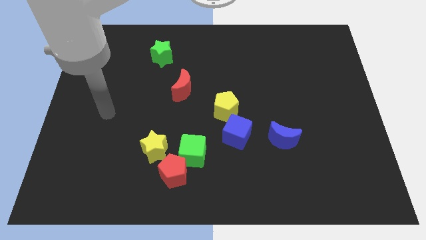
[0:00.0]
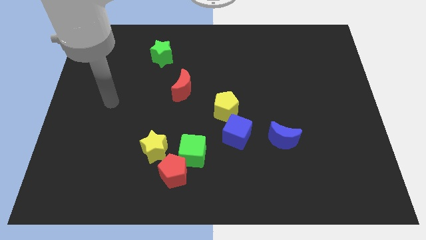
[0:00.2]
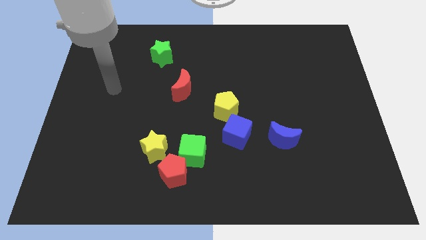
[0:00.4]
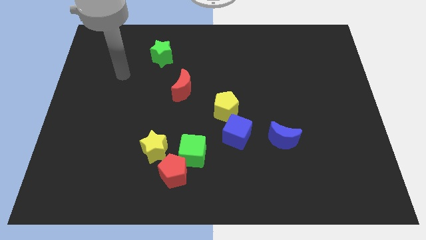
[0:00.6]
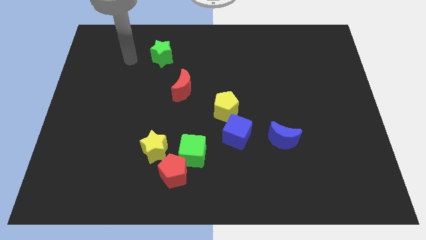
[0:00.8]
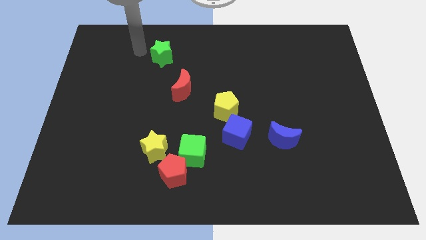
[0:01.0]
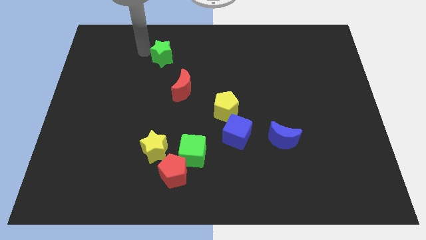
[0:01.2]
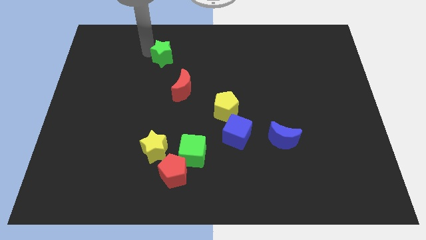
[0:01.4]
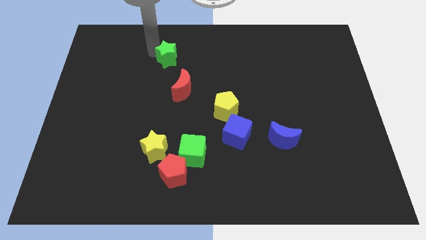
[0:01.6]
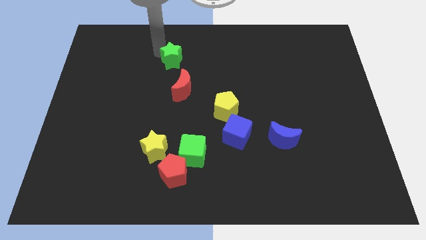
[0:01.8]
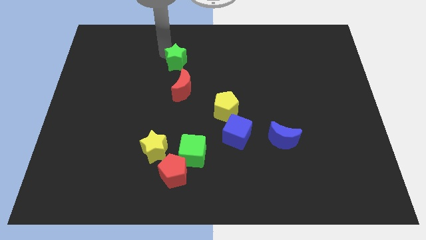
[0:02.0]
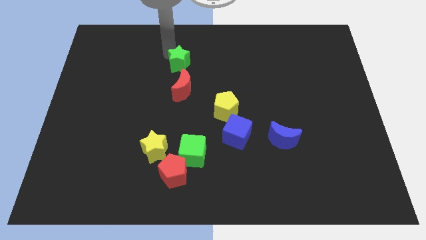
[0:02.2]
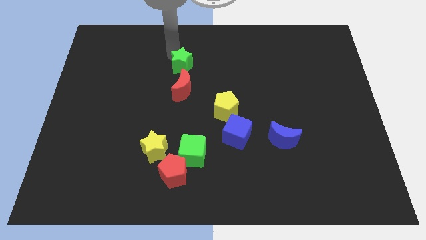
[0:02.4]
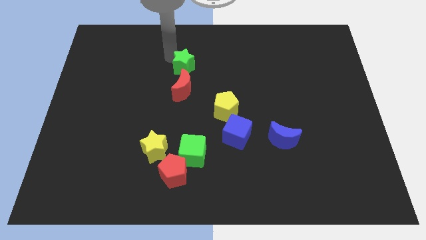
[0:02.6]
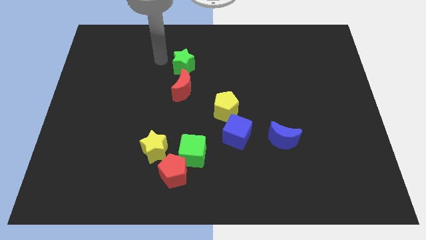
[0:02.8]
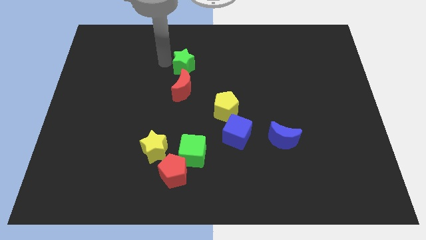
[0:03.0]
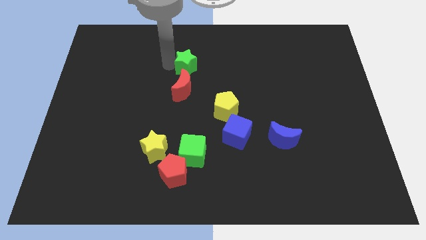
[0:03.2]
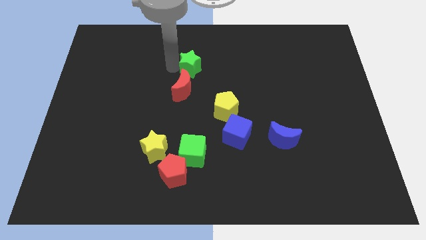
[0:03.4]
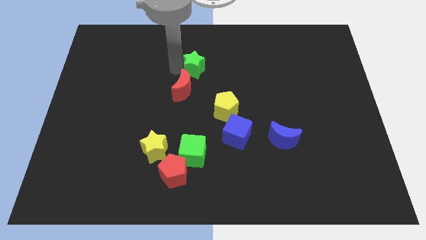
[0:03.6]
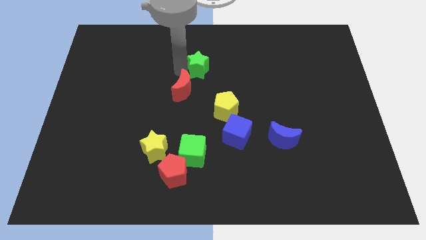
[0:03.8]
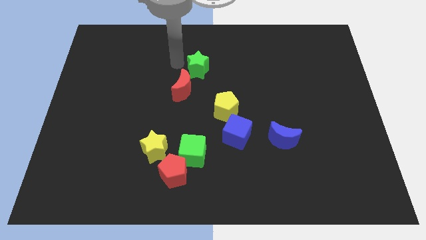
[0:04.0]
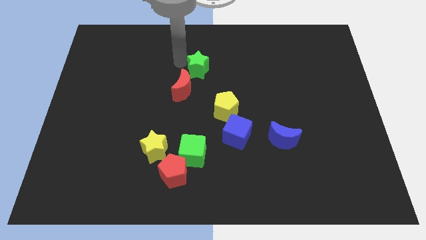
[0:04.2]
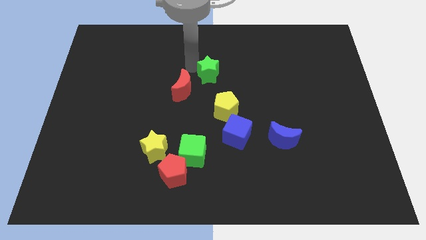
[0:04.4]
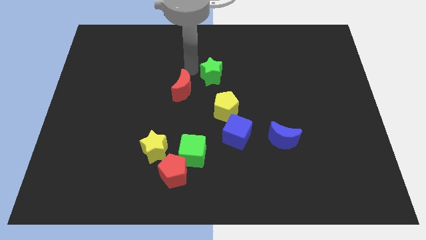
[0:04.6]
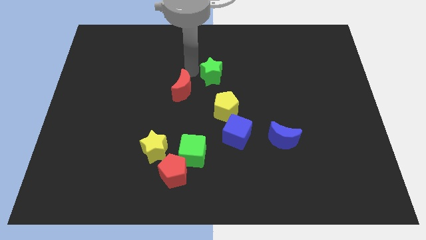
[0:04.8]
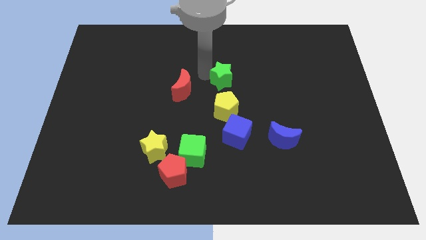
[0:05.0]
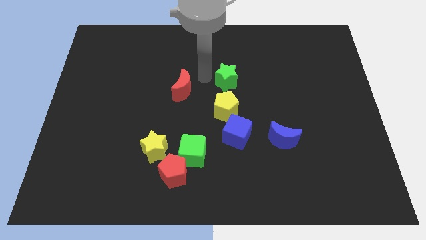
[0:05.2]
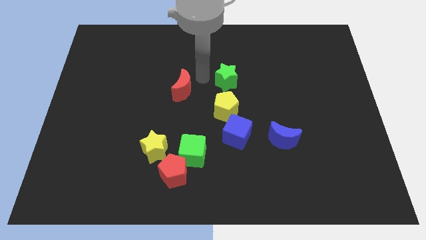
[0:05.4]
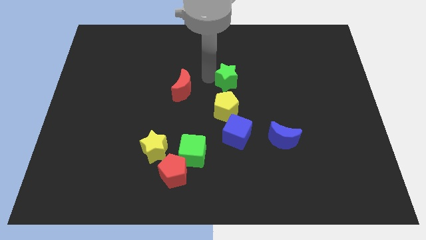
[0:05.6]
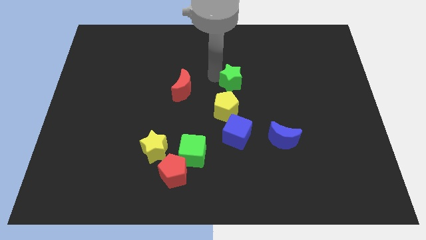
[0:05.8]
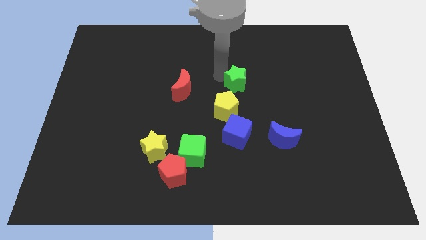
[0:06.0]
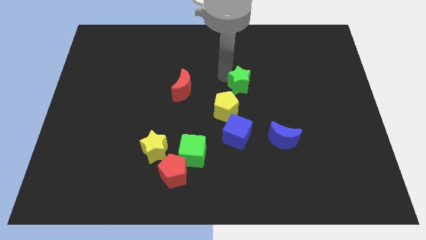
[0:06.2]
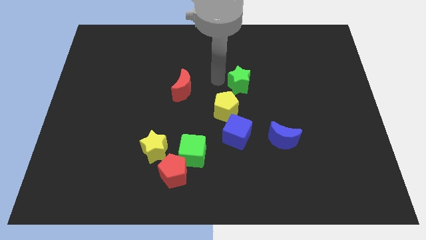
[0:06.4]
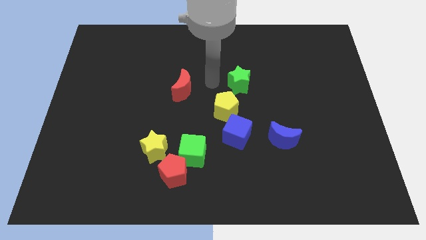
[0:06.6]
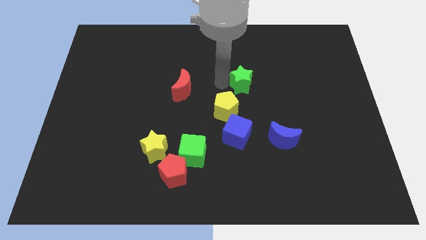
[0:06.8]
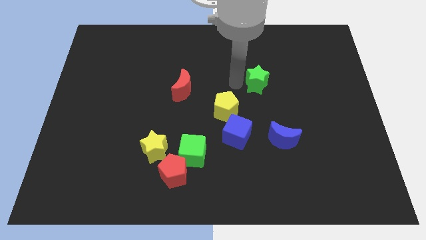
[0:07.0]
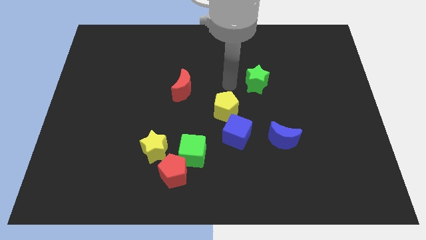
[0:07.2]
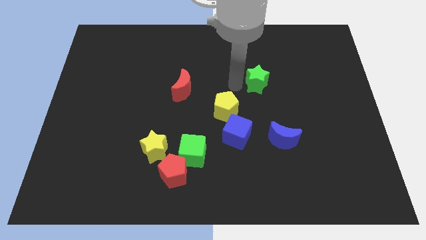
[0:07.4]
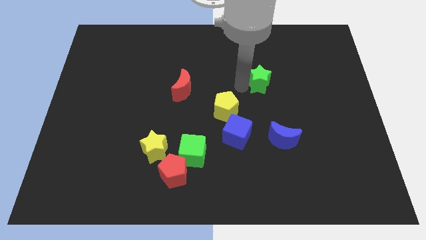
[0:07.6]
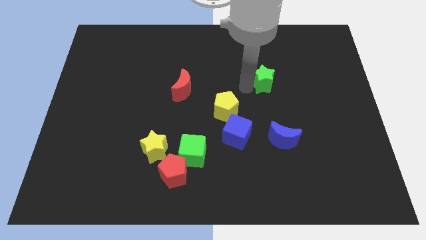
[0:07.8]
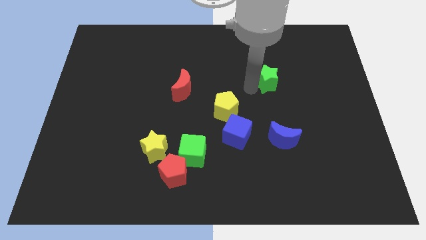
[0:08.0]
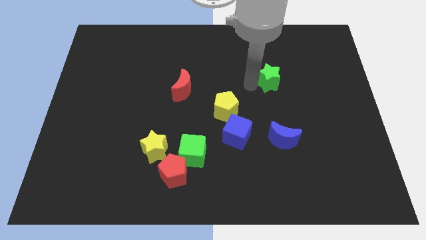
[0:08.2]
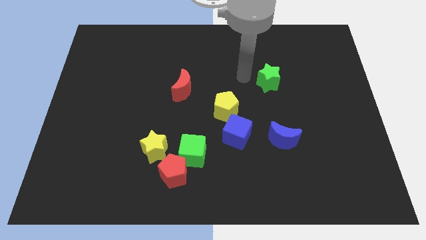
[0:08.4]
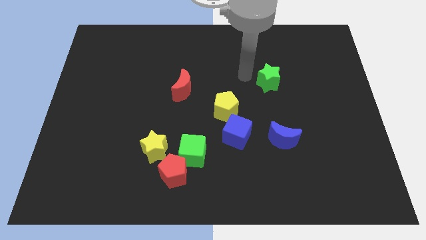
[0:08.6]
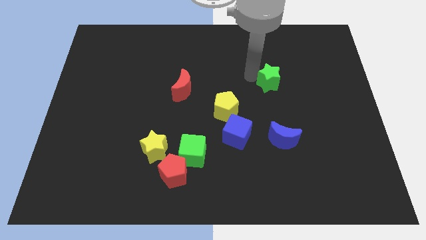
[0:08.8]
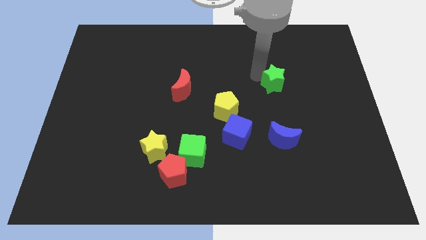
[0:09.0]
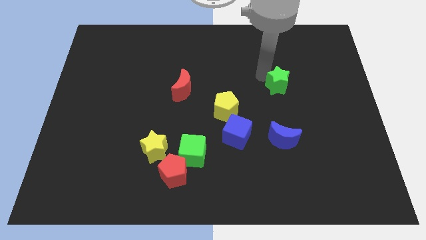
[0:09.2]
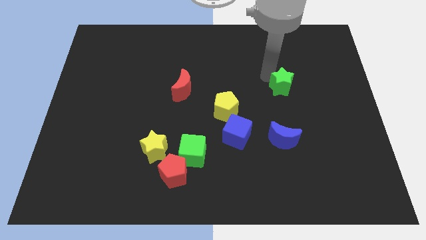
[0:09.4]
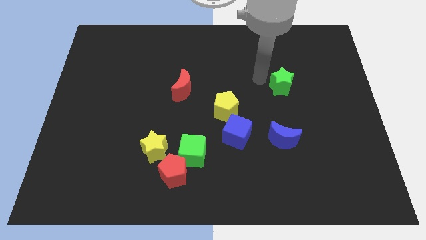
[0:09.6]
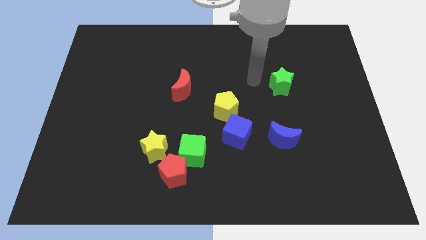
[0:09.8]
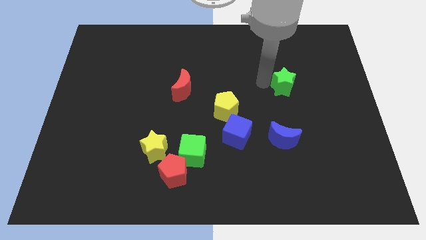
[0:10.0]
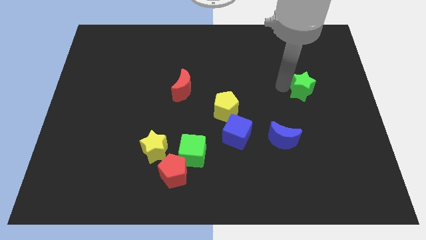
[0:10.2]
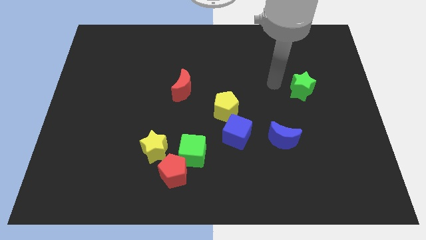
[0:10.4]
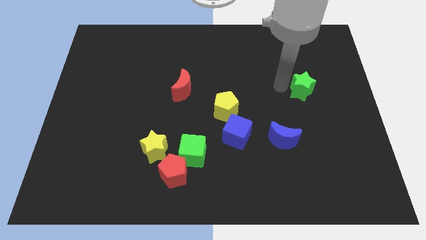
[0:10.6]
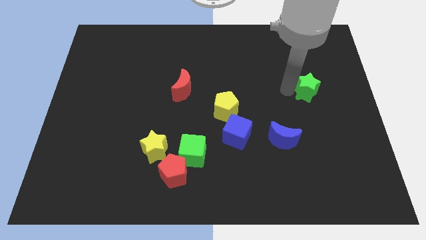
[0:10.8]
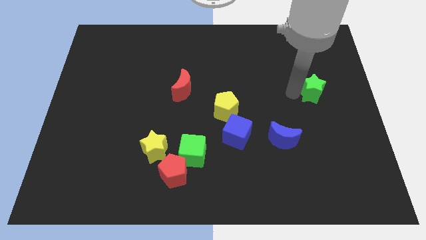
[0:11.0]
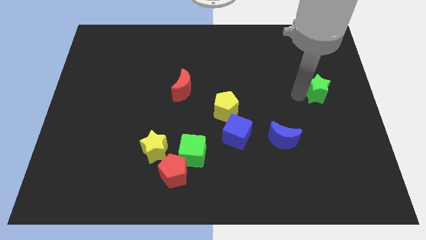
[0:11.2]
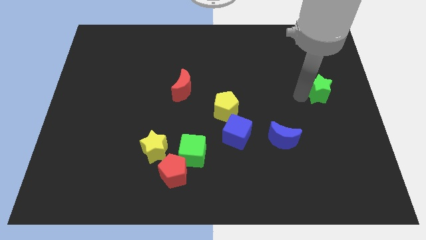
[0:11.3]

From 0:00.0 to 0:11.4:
put the green star to the center right

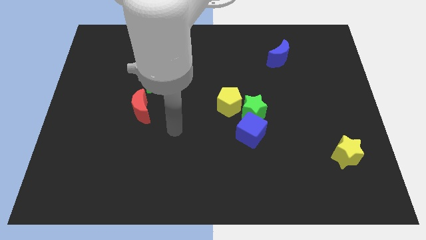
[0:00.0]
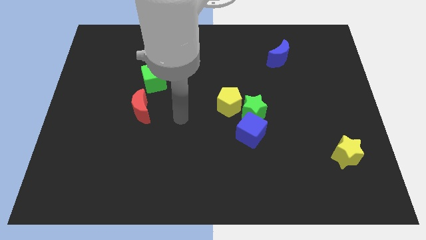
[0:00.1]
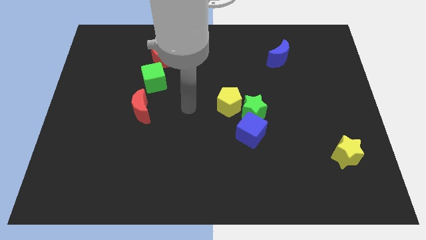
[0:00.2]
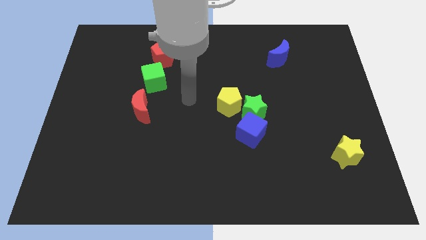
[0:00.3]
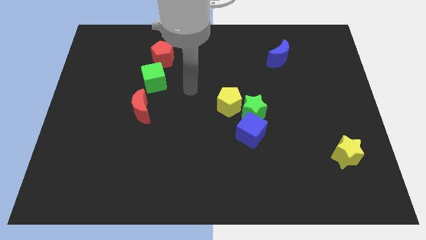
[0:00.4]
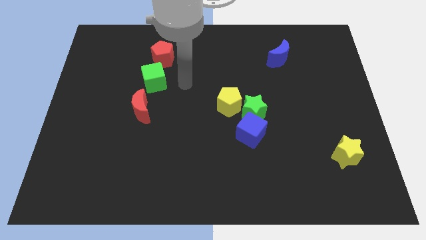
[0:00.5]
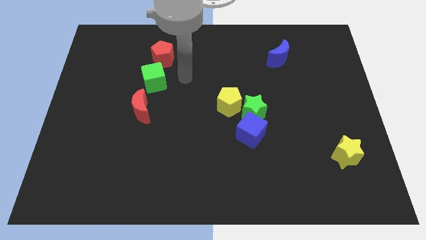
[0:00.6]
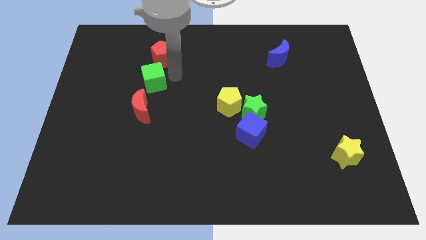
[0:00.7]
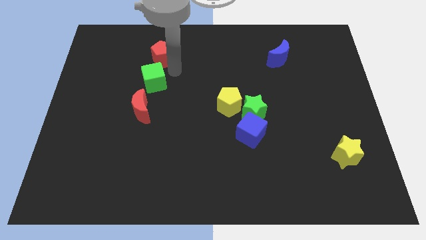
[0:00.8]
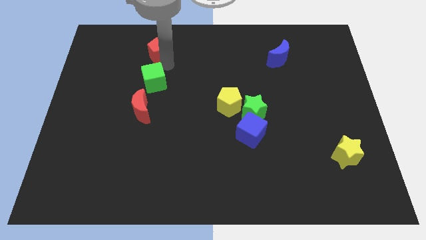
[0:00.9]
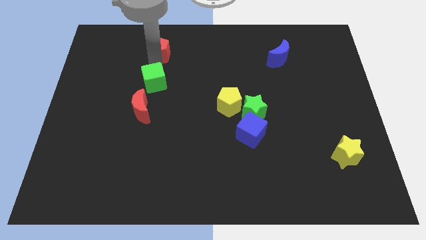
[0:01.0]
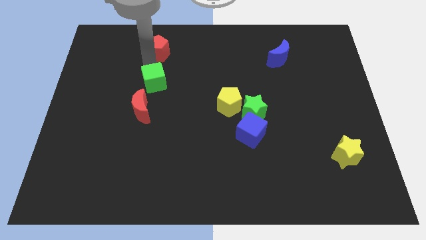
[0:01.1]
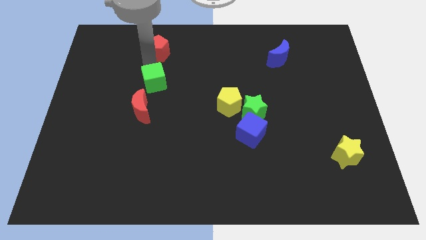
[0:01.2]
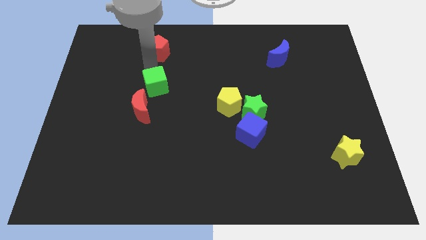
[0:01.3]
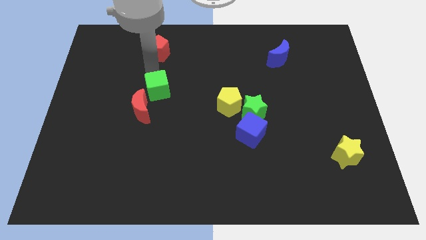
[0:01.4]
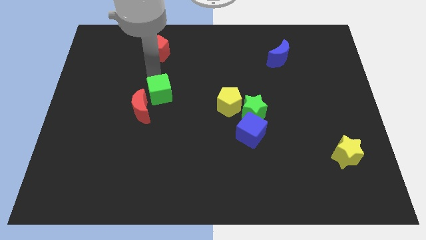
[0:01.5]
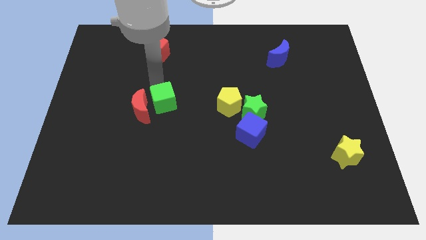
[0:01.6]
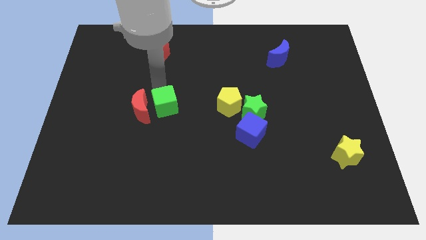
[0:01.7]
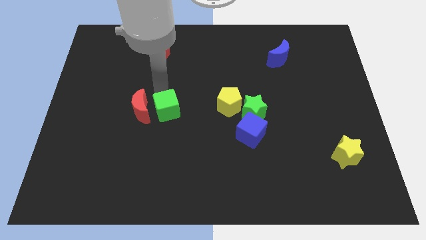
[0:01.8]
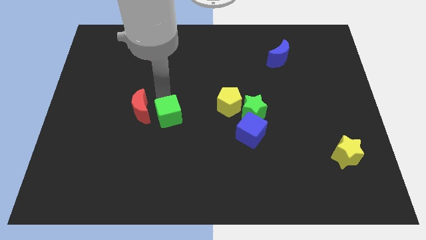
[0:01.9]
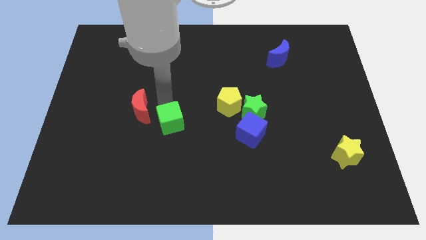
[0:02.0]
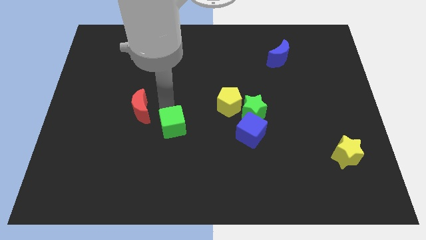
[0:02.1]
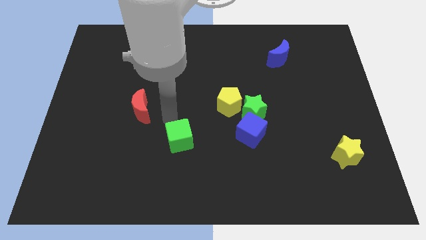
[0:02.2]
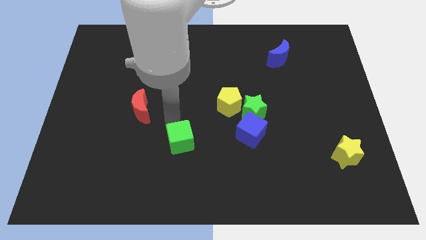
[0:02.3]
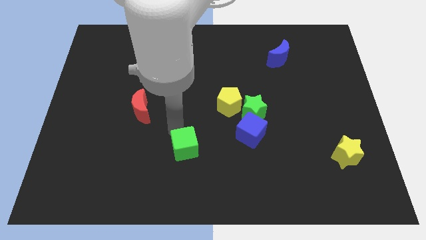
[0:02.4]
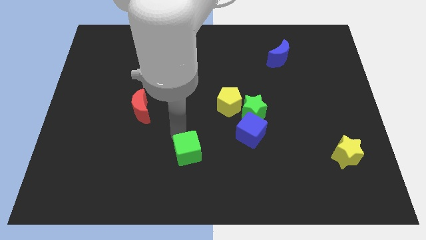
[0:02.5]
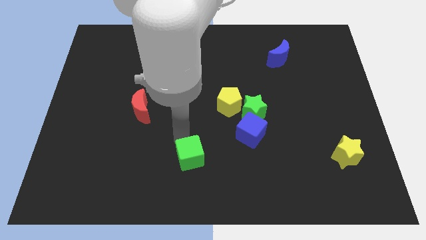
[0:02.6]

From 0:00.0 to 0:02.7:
slide the green cube to the bottom side
